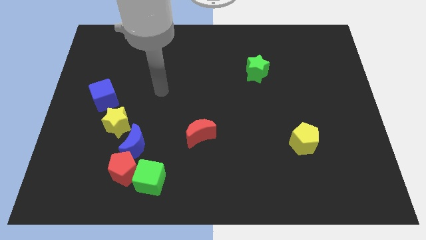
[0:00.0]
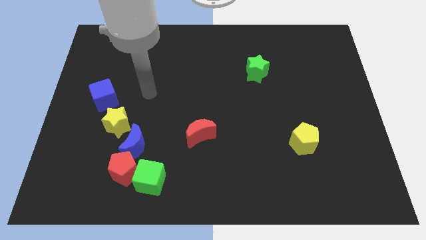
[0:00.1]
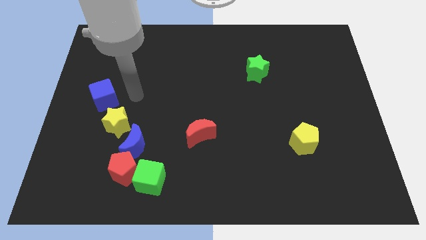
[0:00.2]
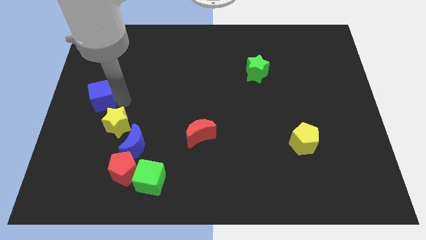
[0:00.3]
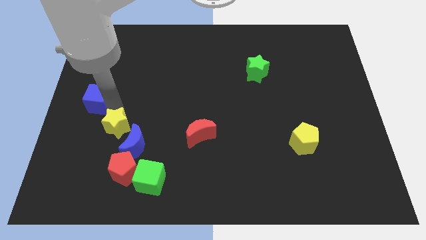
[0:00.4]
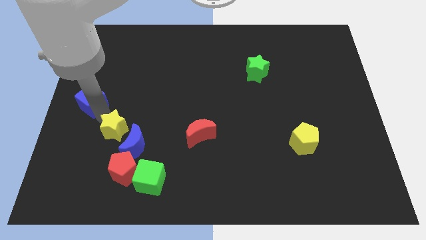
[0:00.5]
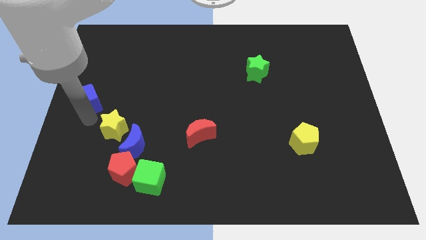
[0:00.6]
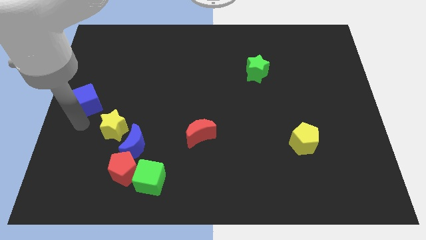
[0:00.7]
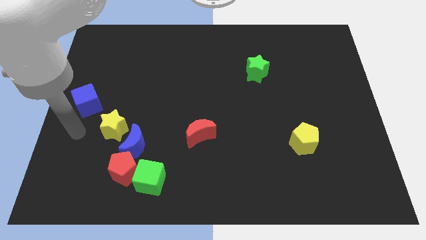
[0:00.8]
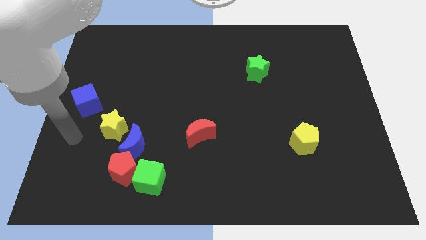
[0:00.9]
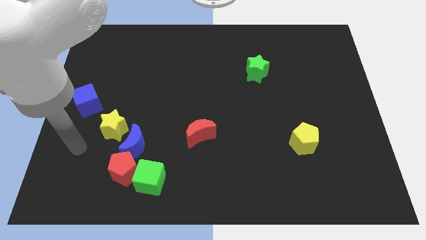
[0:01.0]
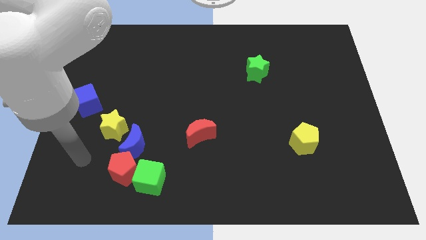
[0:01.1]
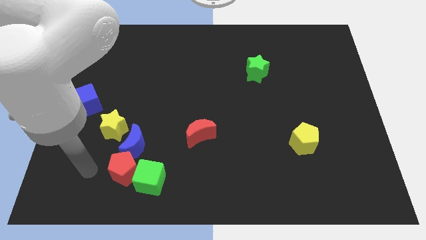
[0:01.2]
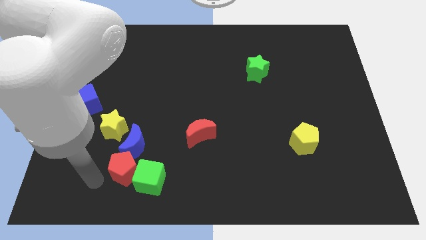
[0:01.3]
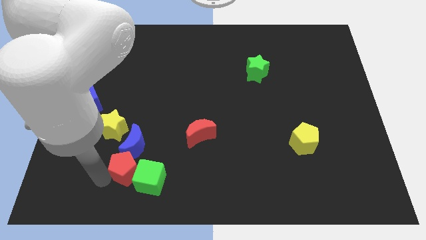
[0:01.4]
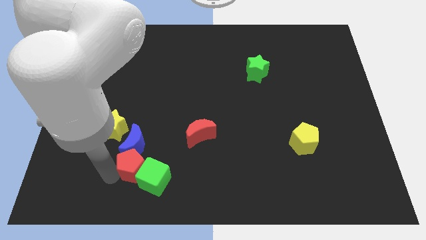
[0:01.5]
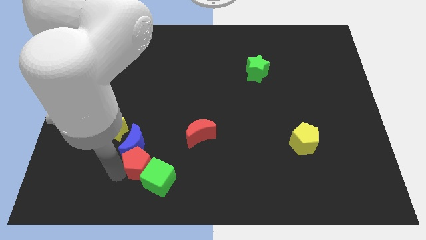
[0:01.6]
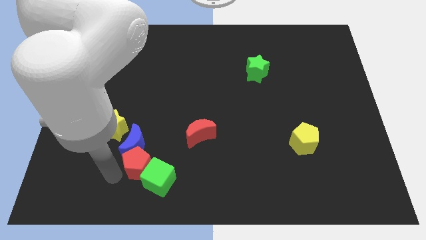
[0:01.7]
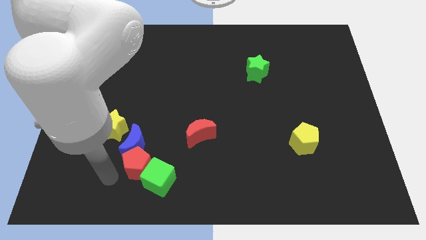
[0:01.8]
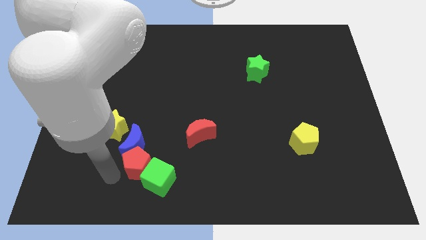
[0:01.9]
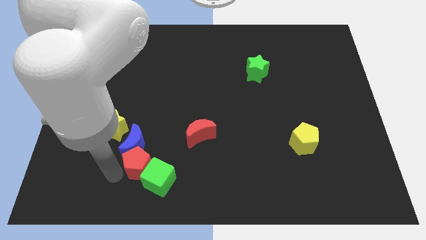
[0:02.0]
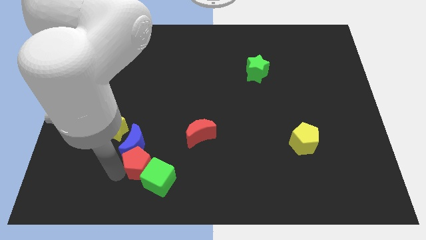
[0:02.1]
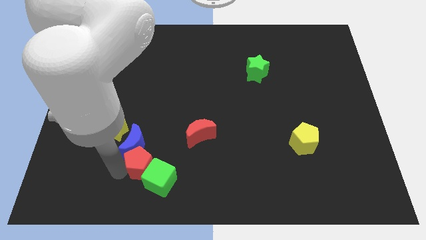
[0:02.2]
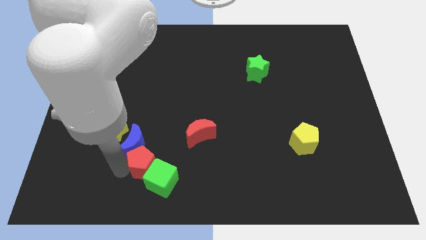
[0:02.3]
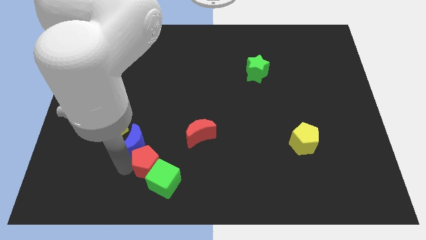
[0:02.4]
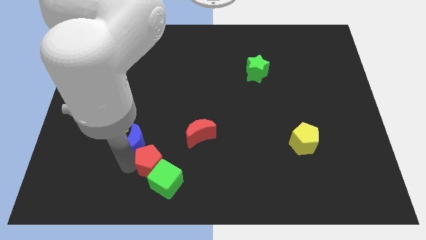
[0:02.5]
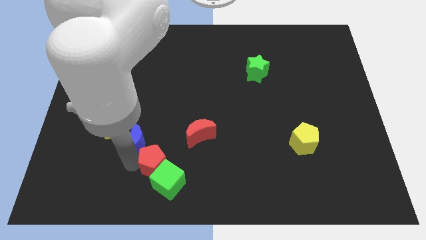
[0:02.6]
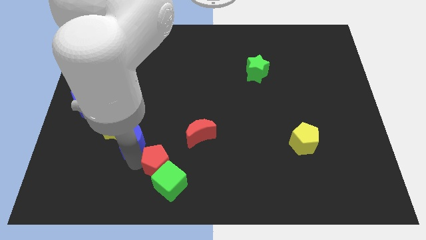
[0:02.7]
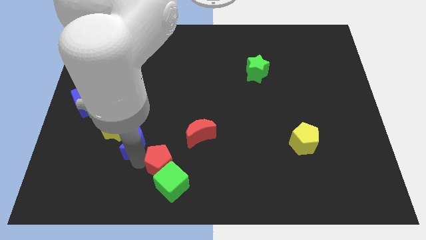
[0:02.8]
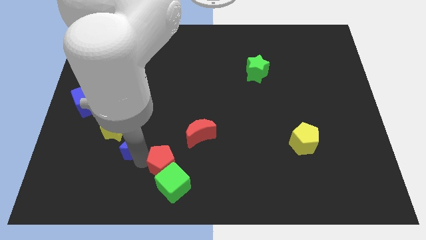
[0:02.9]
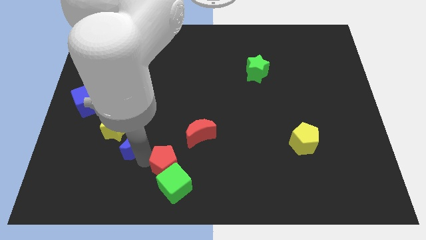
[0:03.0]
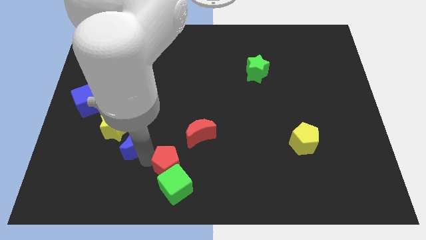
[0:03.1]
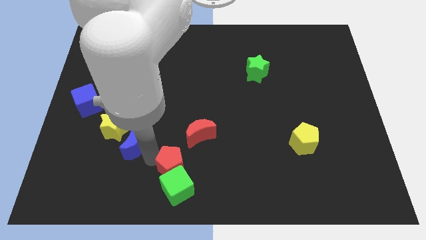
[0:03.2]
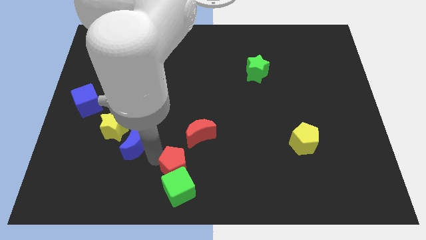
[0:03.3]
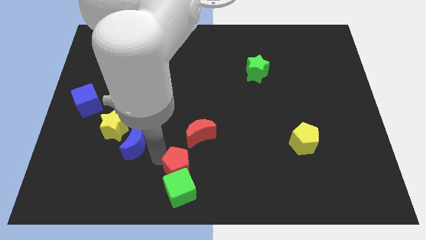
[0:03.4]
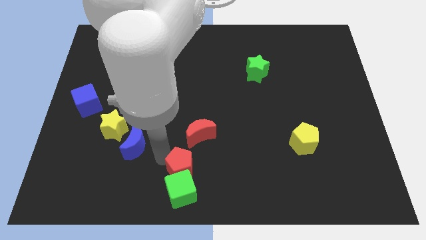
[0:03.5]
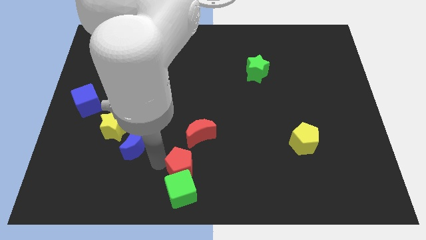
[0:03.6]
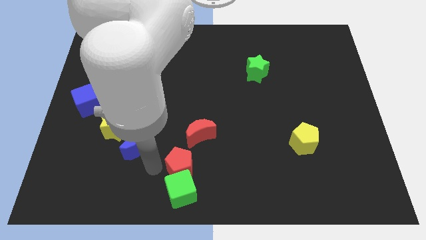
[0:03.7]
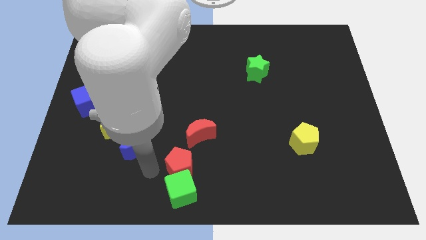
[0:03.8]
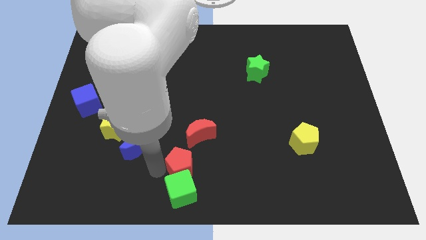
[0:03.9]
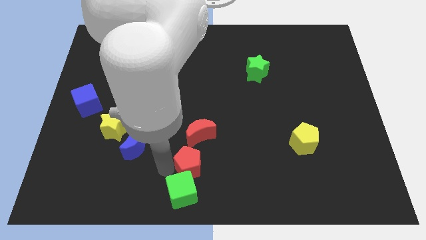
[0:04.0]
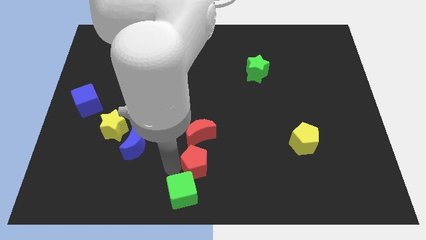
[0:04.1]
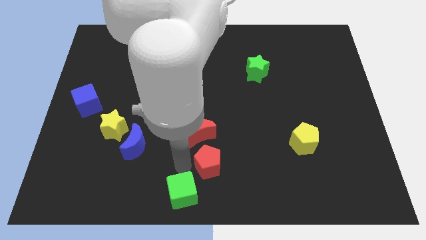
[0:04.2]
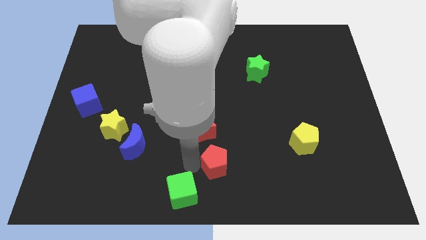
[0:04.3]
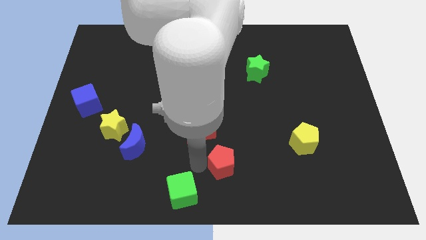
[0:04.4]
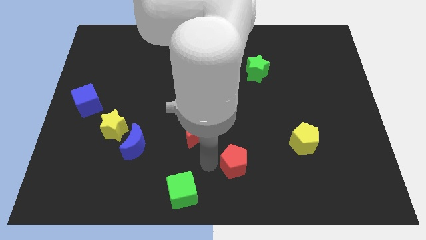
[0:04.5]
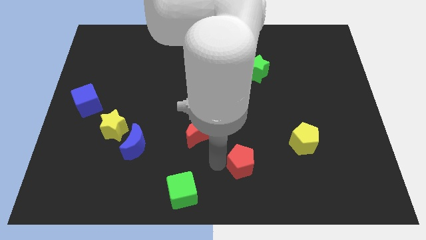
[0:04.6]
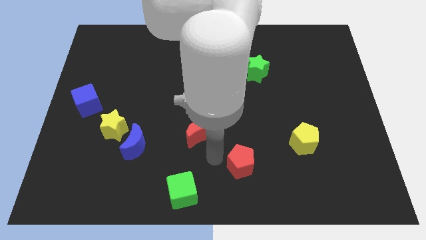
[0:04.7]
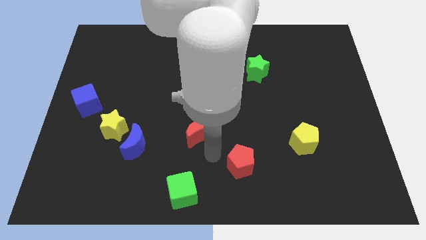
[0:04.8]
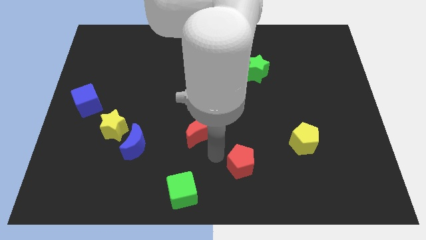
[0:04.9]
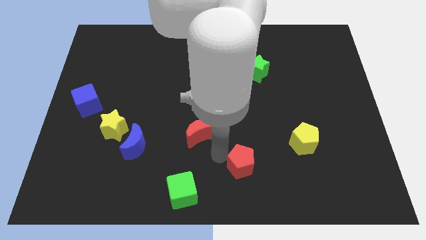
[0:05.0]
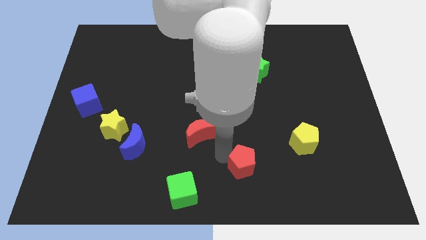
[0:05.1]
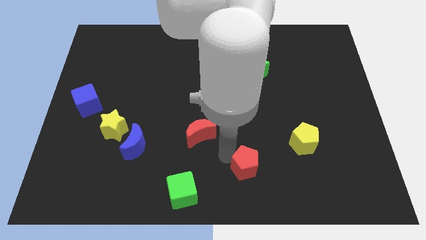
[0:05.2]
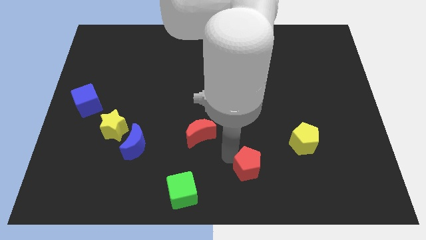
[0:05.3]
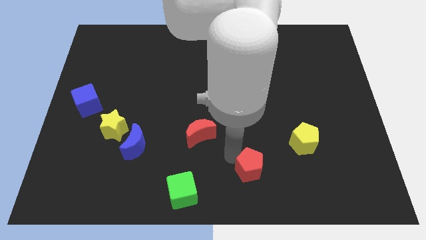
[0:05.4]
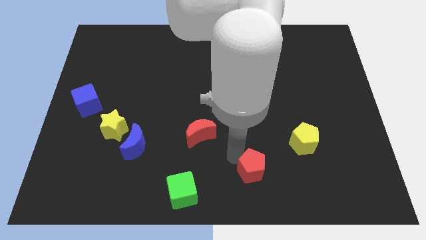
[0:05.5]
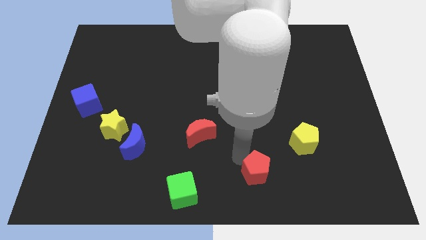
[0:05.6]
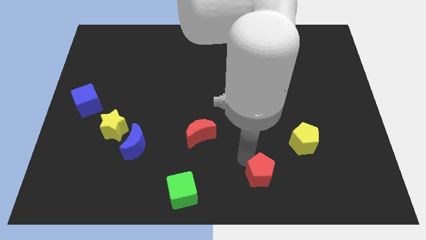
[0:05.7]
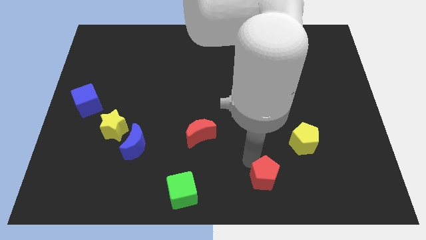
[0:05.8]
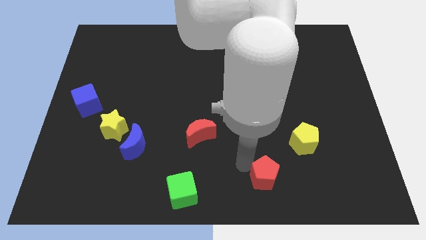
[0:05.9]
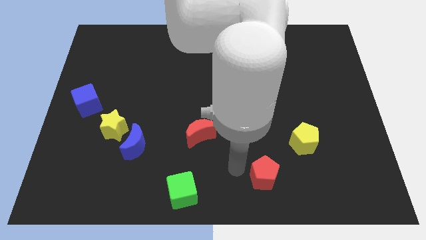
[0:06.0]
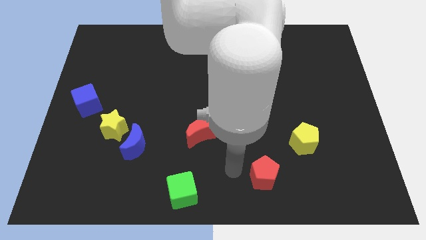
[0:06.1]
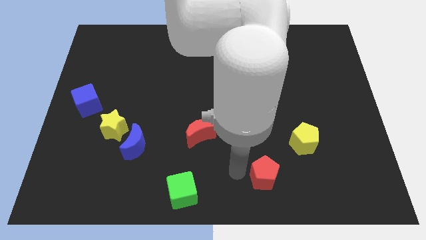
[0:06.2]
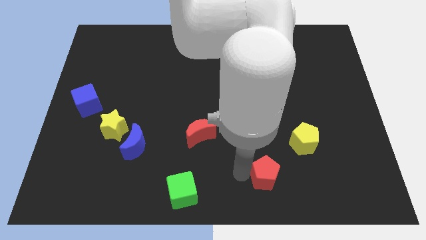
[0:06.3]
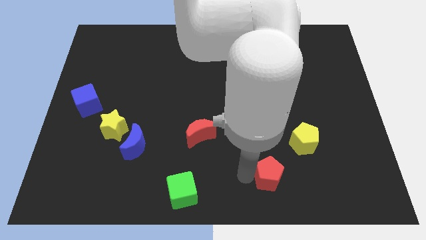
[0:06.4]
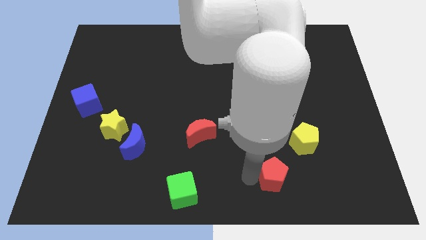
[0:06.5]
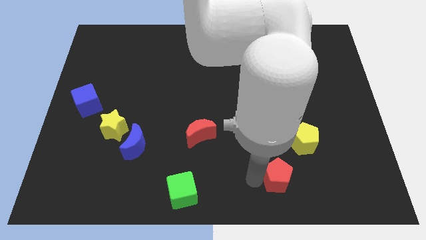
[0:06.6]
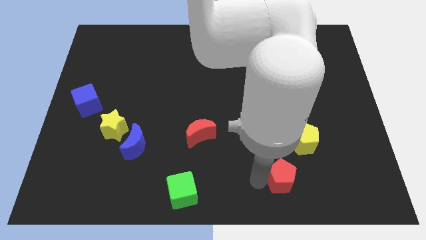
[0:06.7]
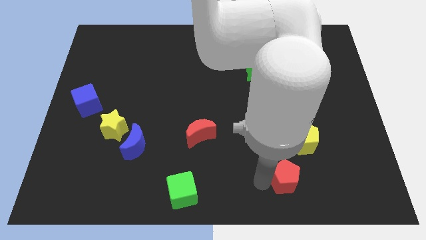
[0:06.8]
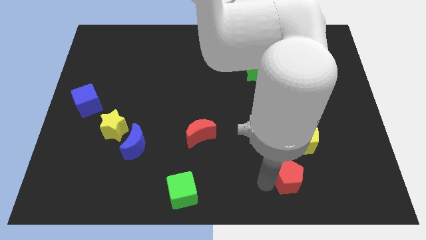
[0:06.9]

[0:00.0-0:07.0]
put the red pentagon to the bottom side of the yellow pentagon
